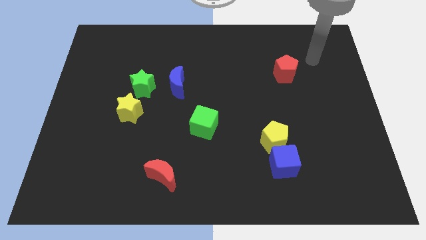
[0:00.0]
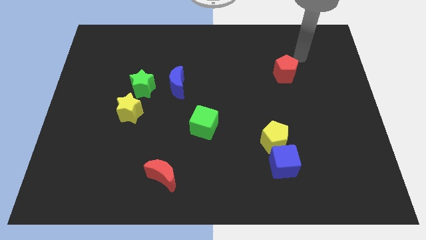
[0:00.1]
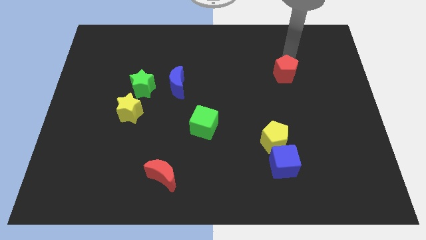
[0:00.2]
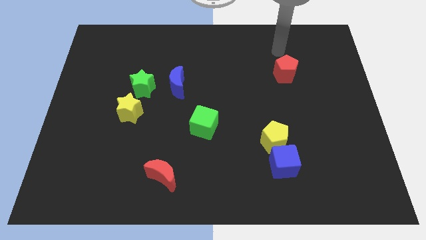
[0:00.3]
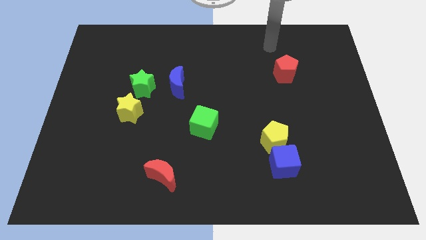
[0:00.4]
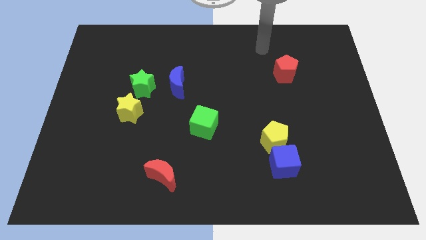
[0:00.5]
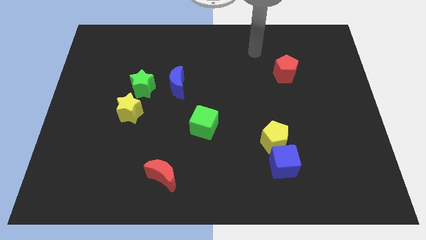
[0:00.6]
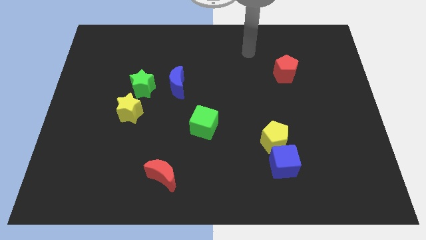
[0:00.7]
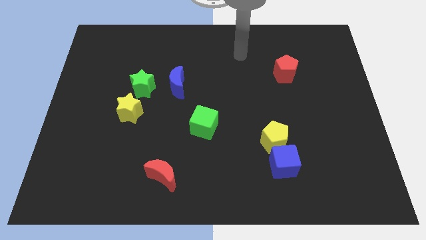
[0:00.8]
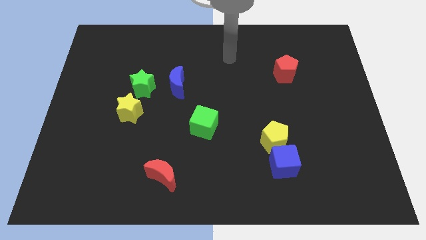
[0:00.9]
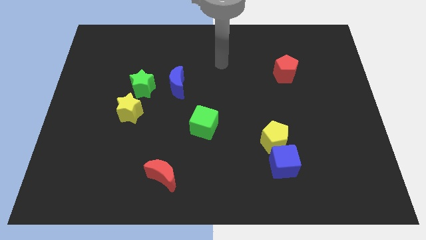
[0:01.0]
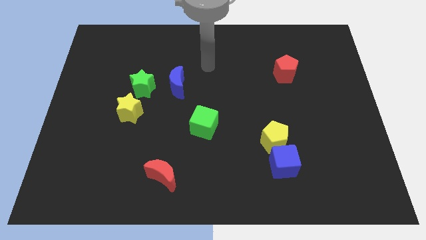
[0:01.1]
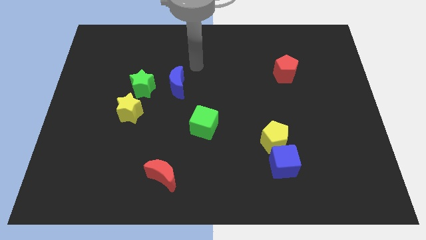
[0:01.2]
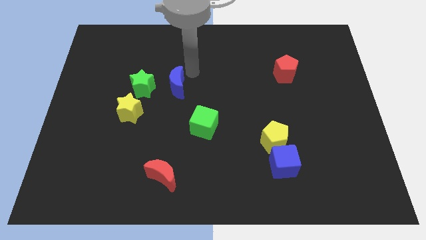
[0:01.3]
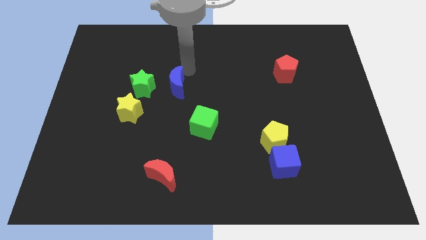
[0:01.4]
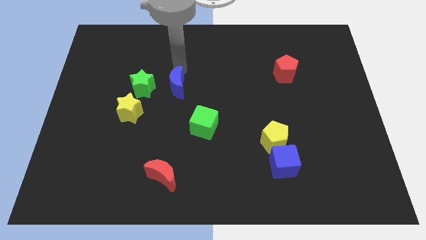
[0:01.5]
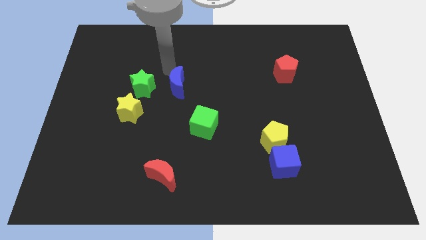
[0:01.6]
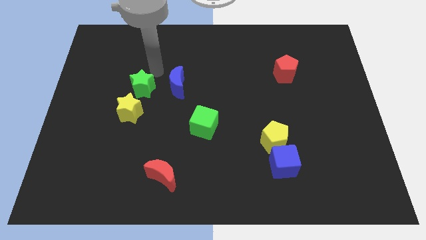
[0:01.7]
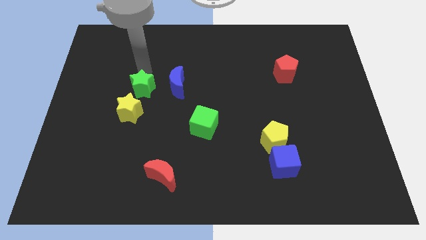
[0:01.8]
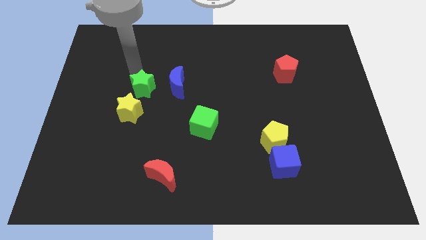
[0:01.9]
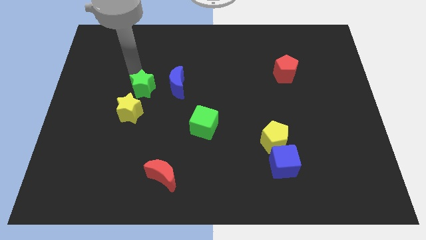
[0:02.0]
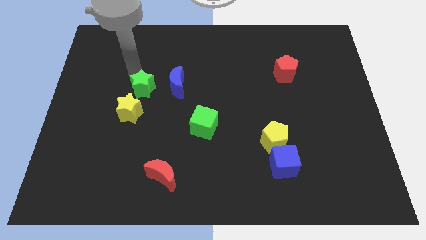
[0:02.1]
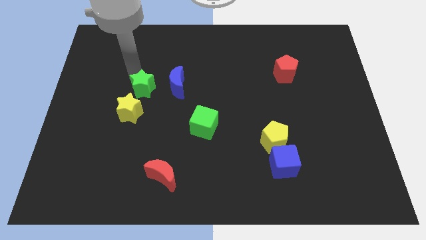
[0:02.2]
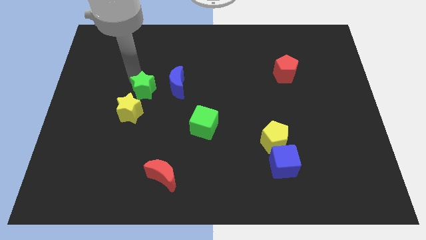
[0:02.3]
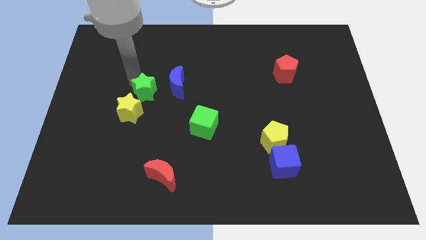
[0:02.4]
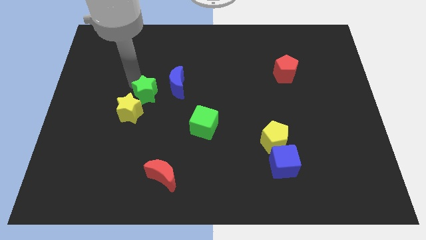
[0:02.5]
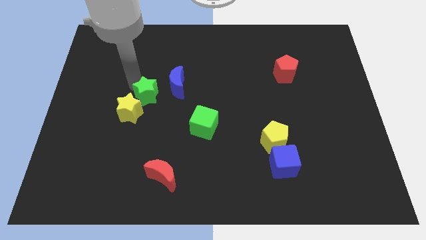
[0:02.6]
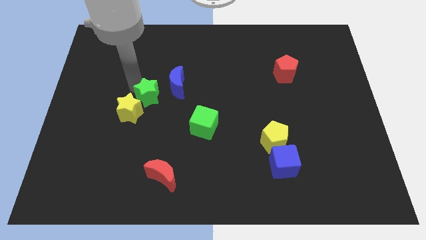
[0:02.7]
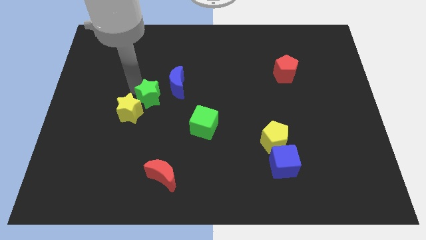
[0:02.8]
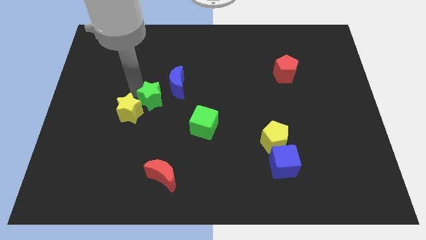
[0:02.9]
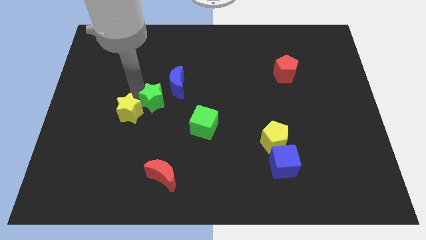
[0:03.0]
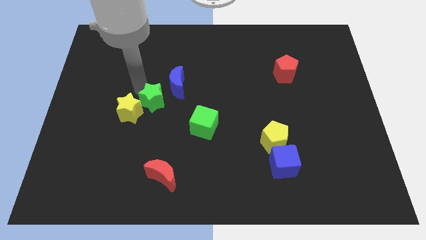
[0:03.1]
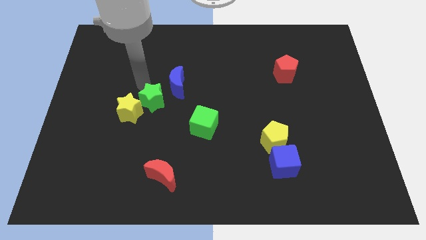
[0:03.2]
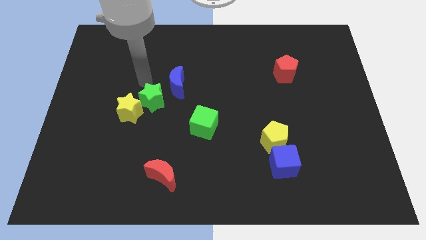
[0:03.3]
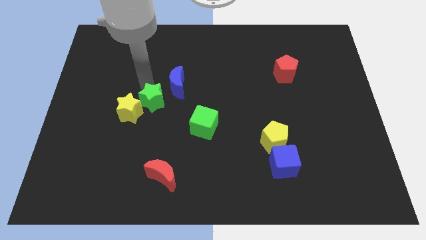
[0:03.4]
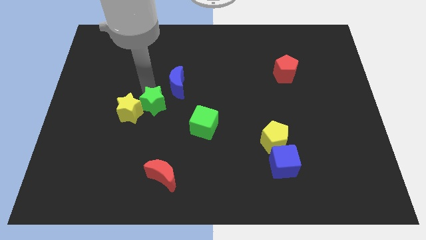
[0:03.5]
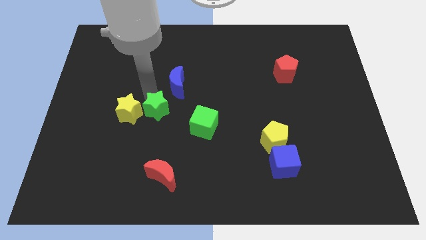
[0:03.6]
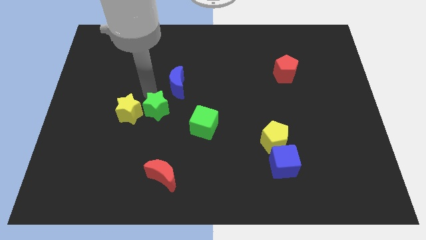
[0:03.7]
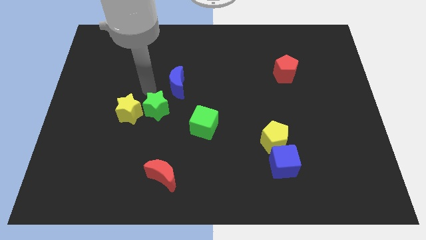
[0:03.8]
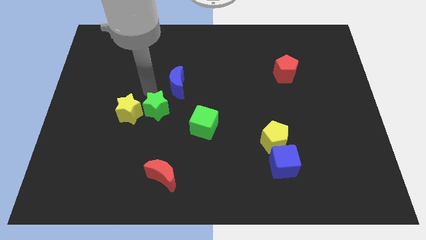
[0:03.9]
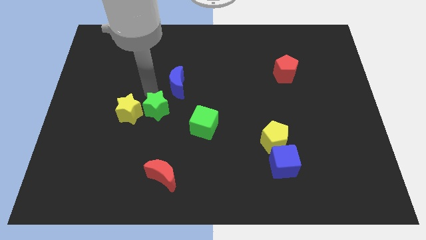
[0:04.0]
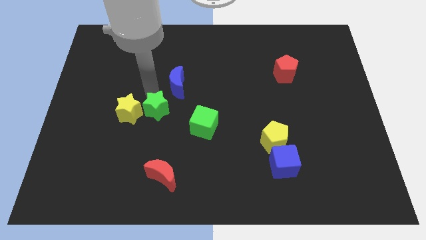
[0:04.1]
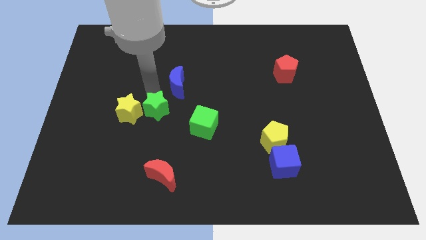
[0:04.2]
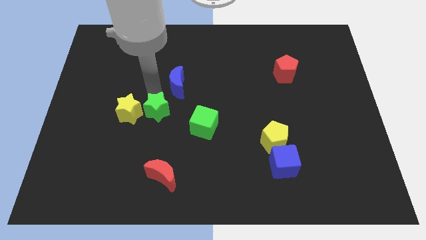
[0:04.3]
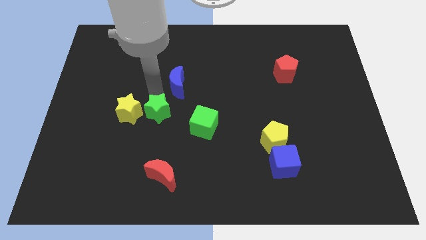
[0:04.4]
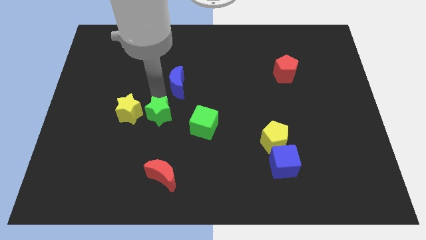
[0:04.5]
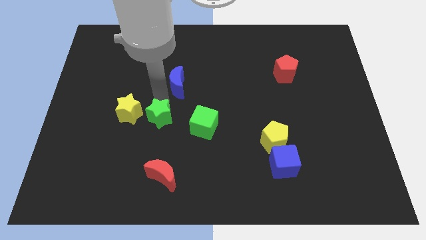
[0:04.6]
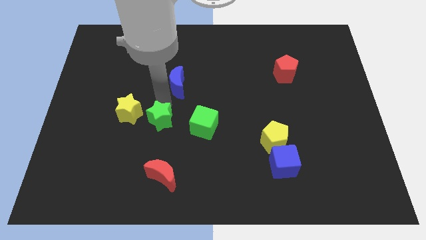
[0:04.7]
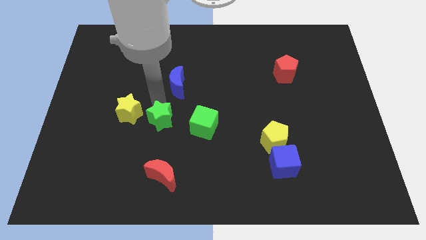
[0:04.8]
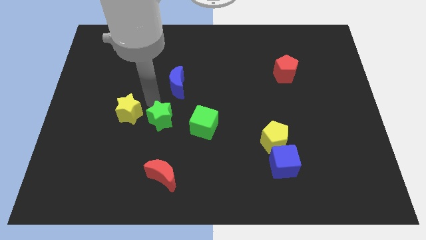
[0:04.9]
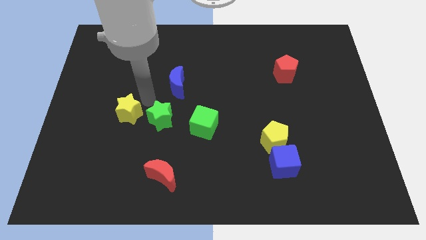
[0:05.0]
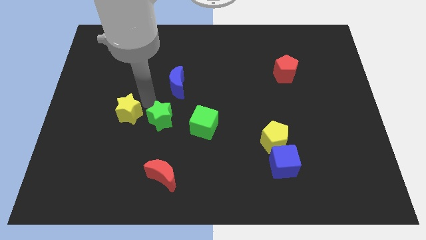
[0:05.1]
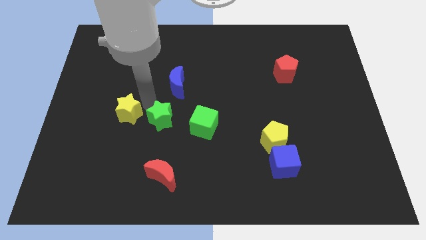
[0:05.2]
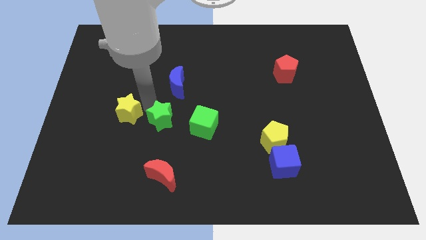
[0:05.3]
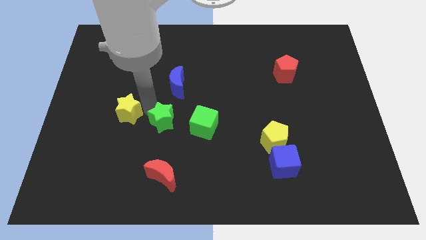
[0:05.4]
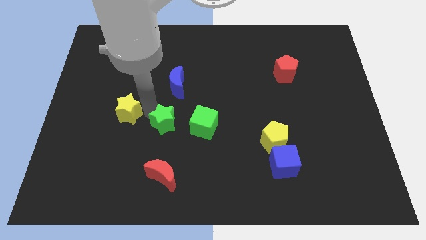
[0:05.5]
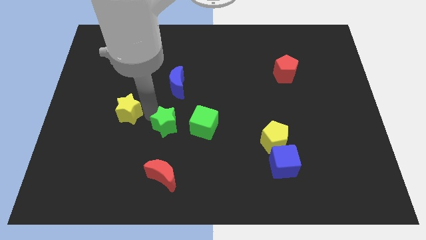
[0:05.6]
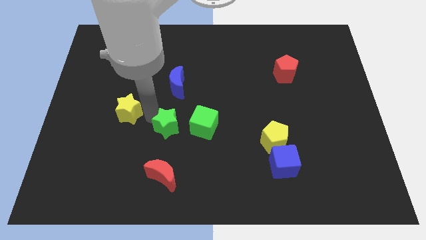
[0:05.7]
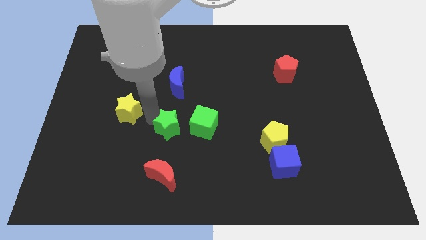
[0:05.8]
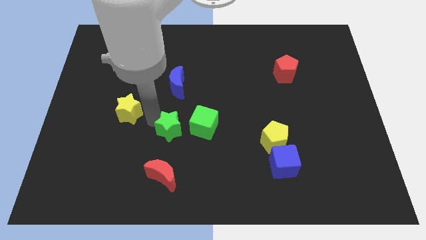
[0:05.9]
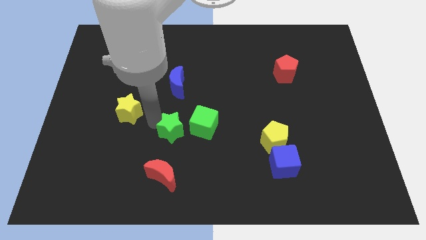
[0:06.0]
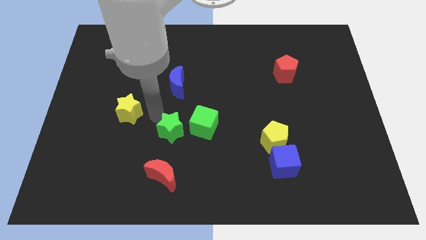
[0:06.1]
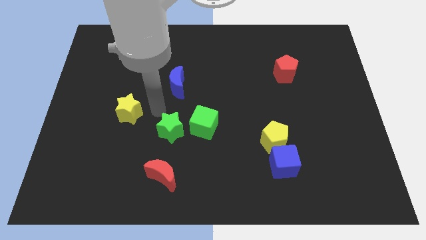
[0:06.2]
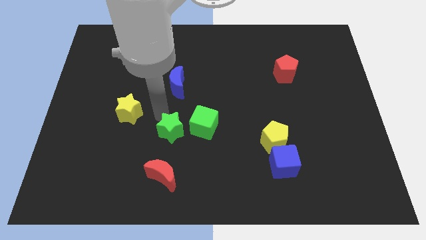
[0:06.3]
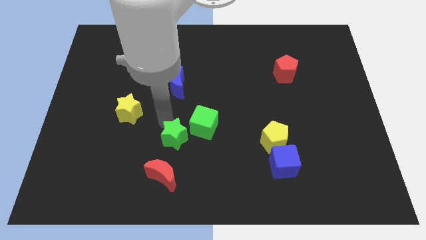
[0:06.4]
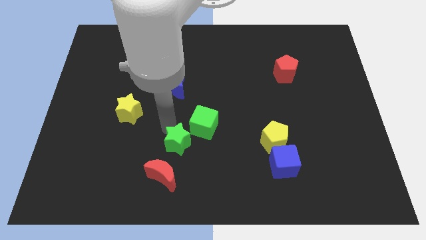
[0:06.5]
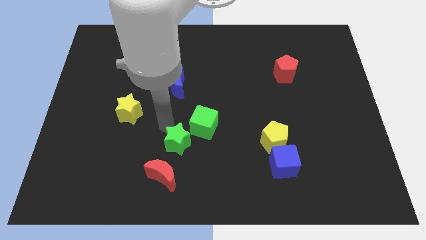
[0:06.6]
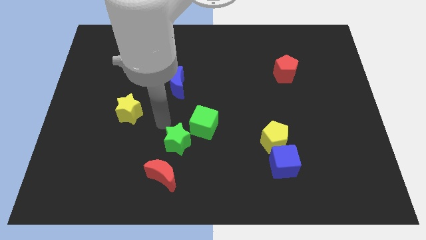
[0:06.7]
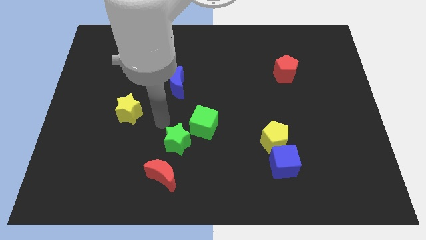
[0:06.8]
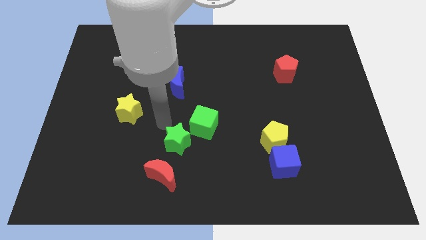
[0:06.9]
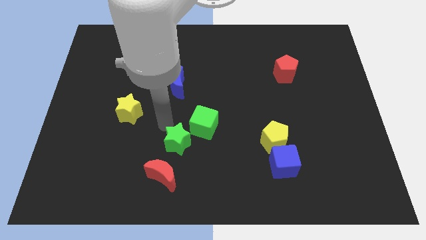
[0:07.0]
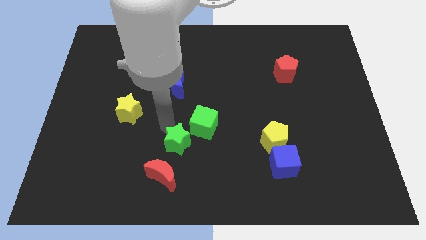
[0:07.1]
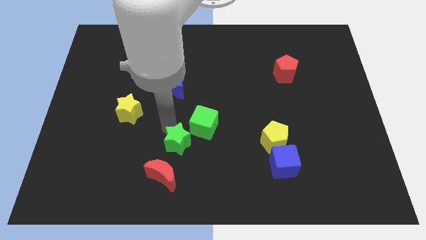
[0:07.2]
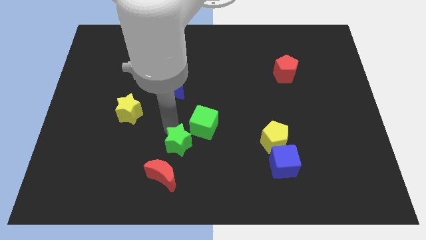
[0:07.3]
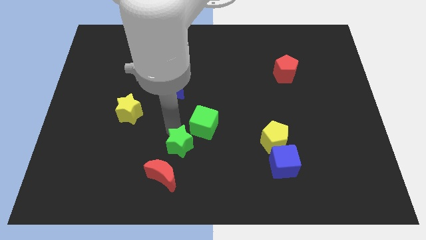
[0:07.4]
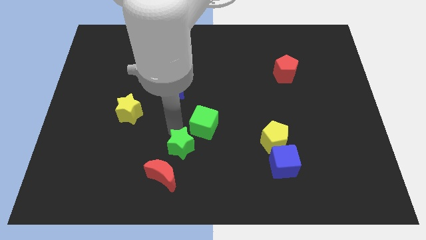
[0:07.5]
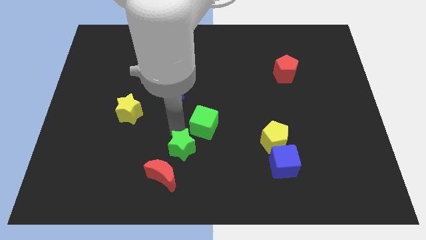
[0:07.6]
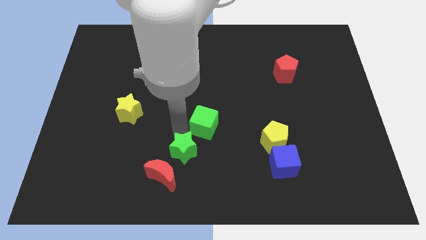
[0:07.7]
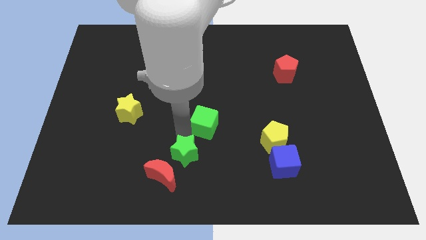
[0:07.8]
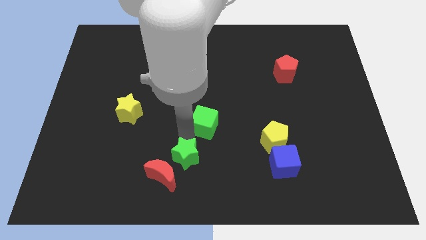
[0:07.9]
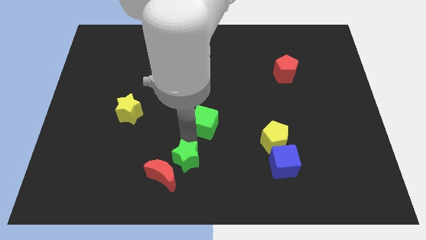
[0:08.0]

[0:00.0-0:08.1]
move the green star to the bottom side
